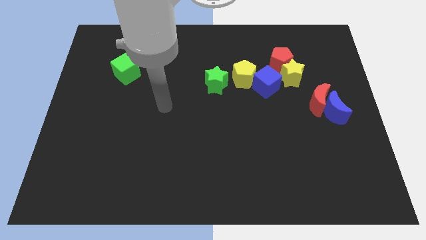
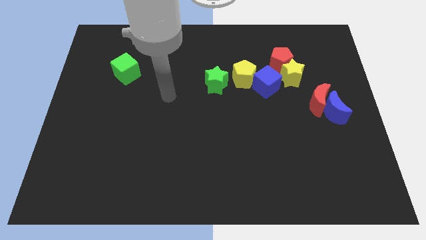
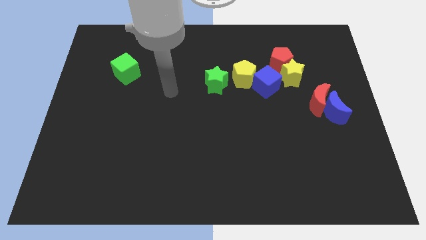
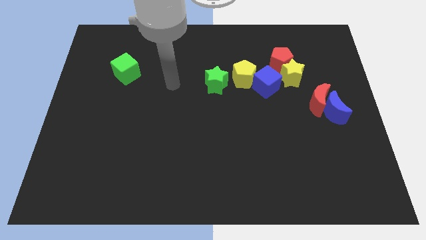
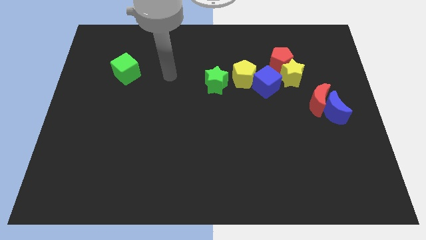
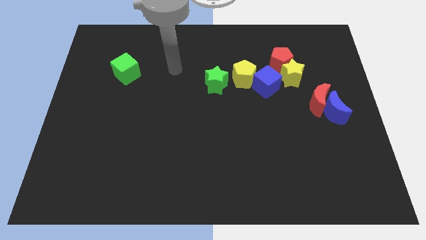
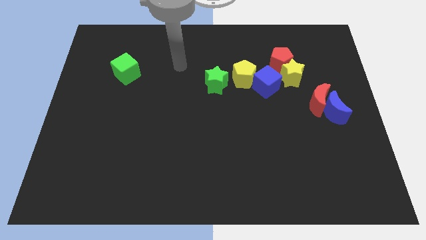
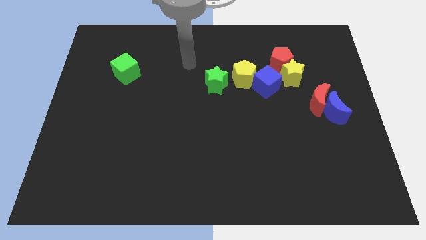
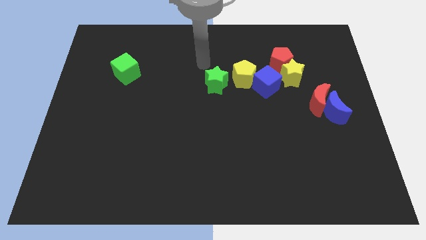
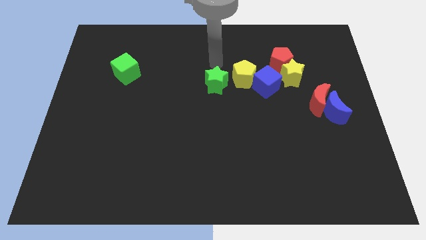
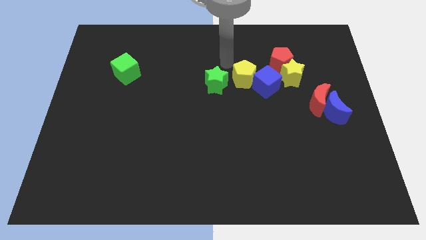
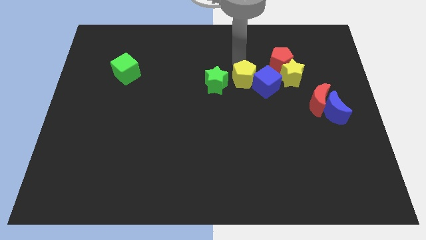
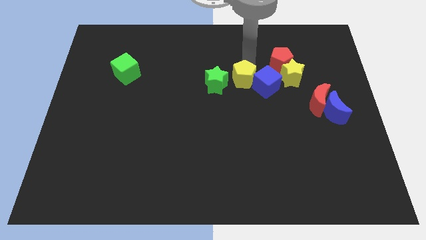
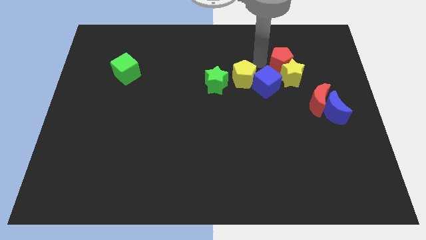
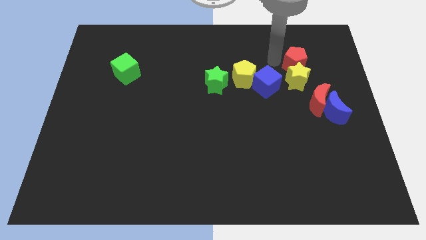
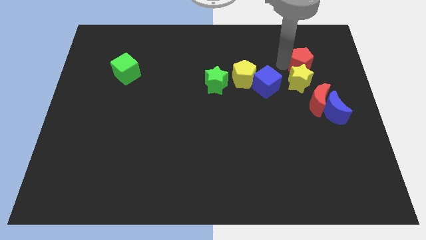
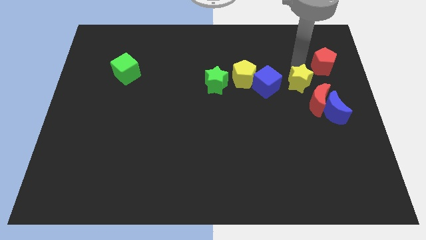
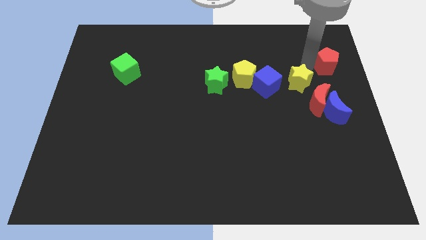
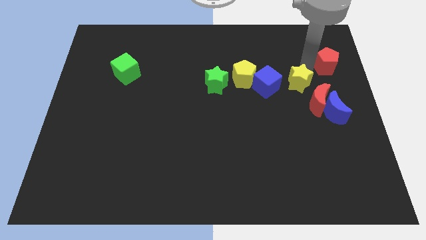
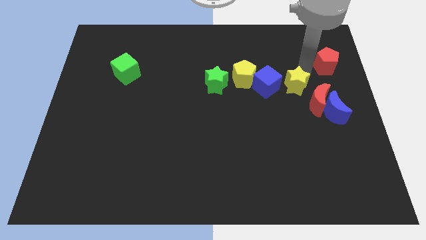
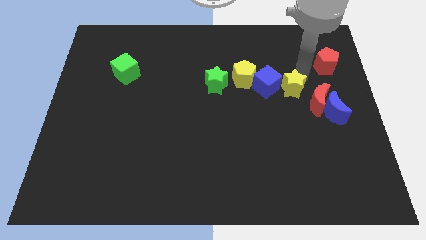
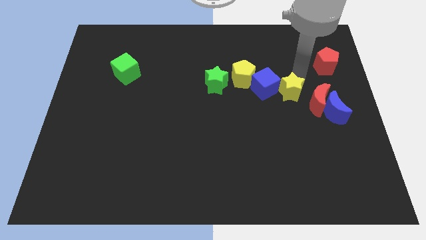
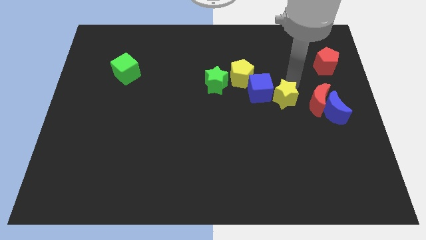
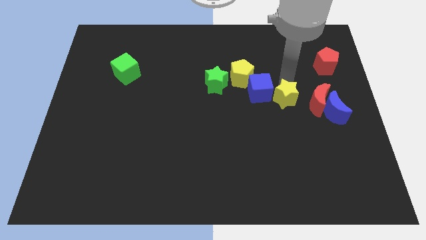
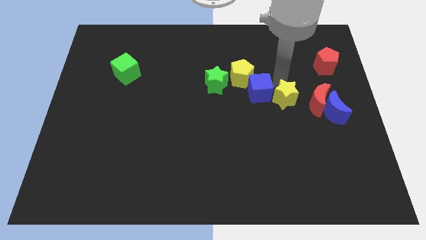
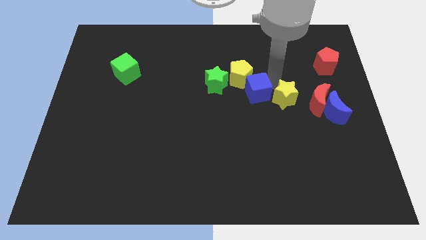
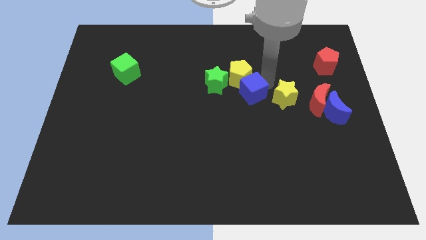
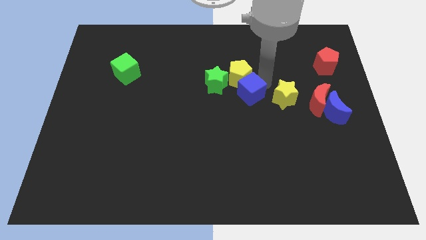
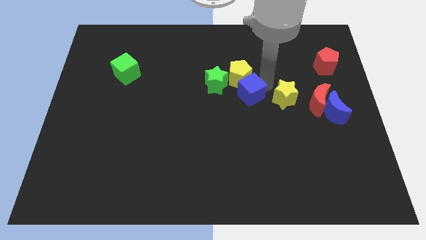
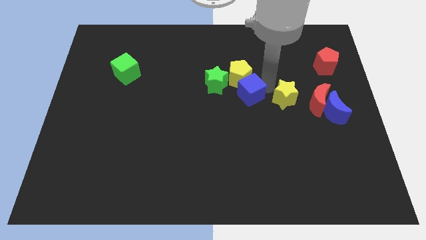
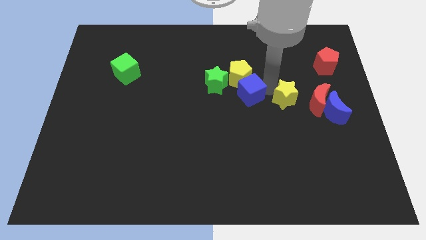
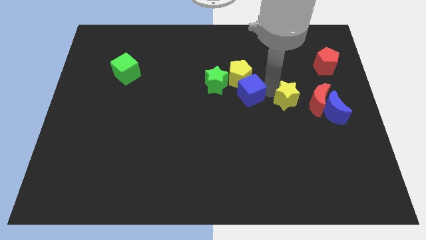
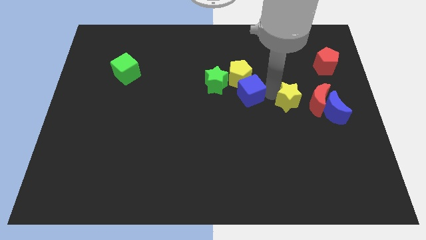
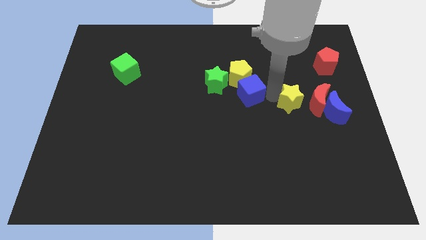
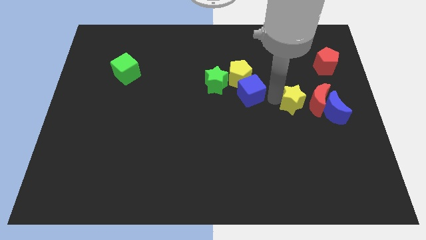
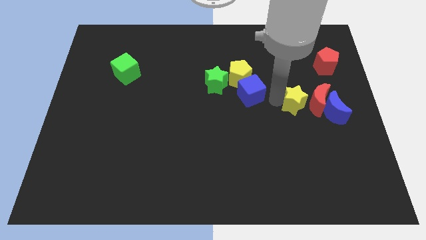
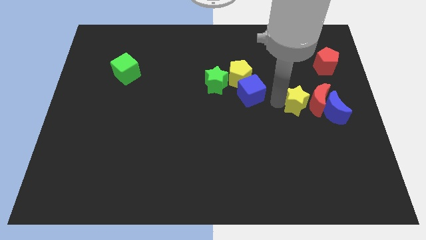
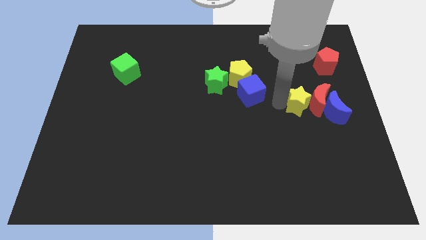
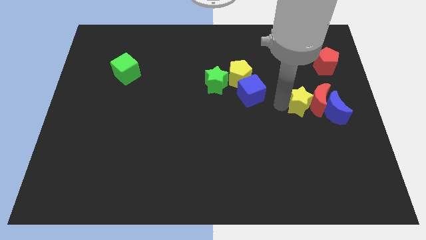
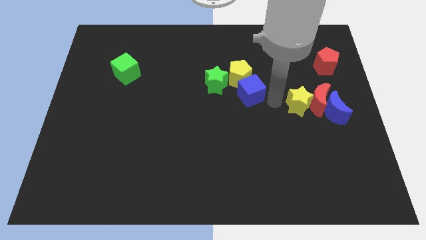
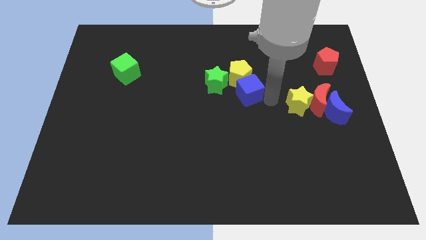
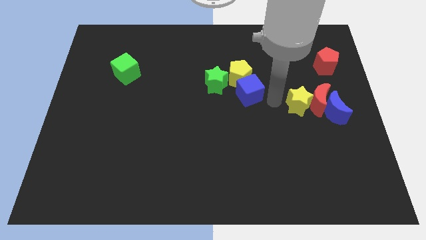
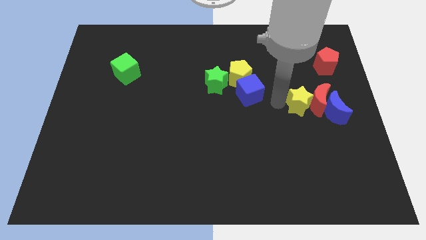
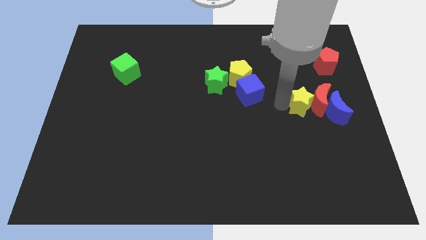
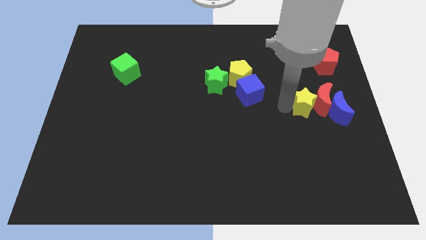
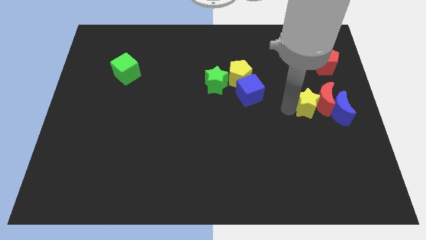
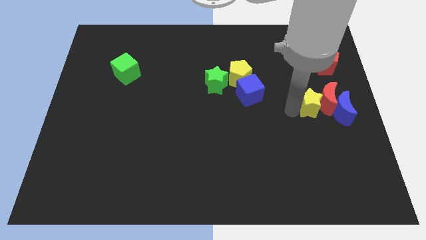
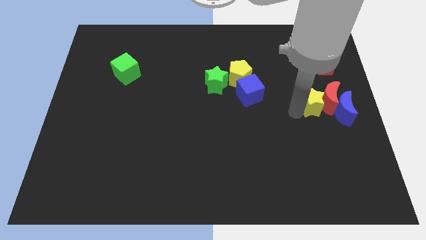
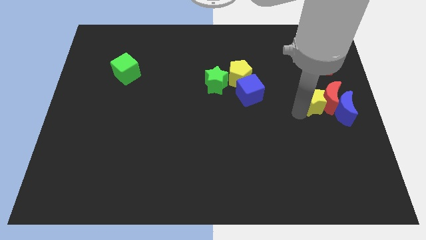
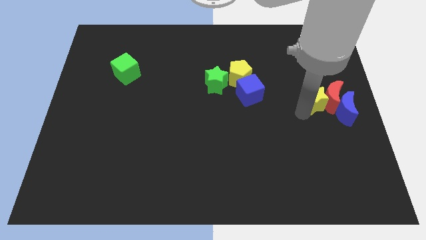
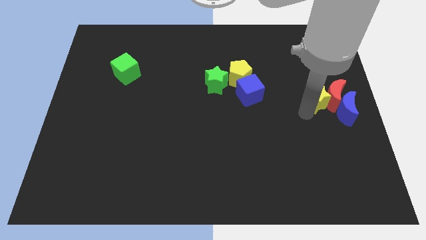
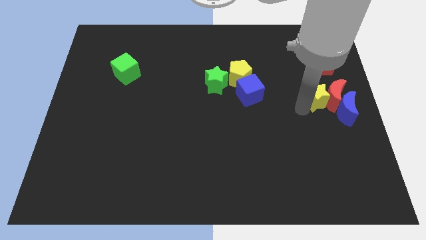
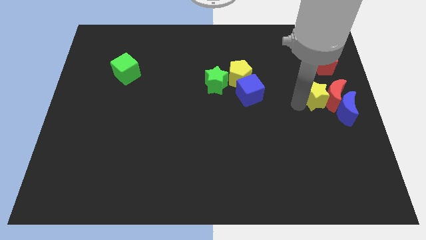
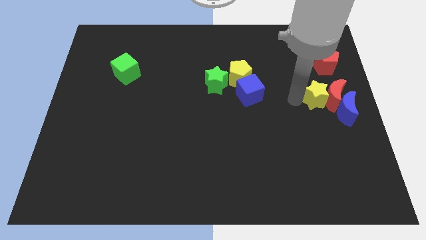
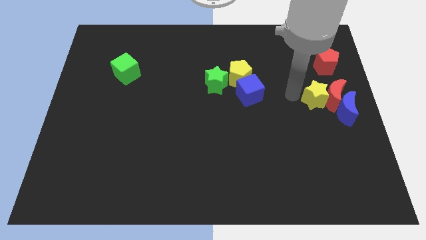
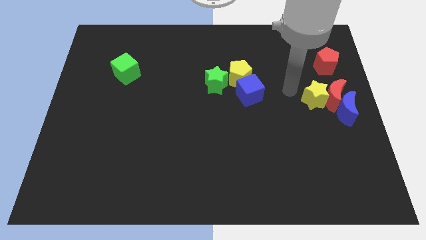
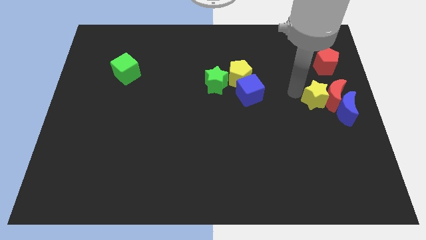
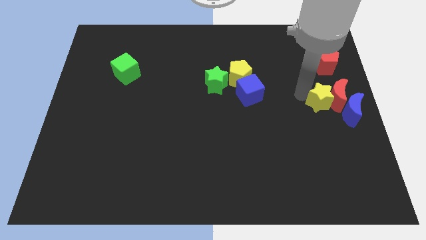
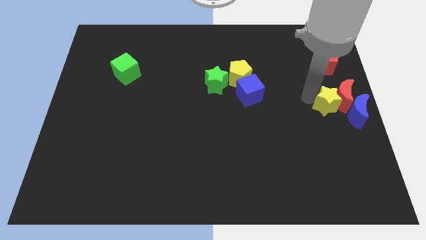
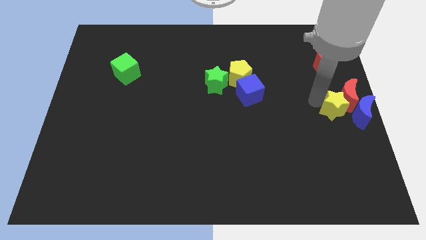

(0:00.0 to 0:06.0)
slide the yellow star close to the blue moon

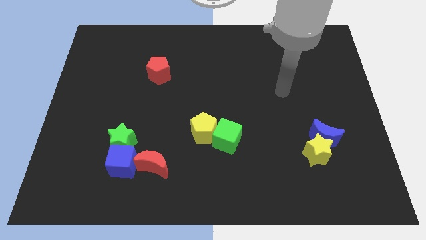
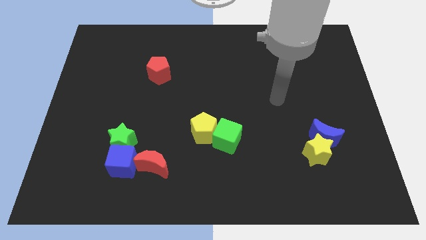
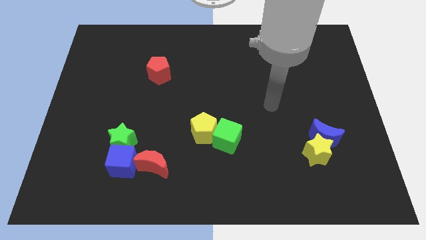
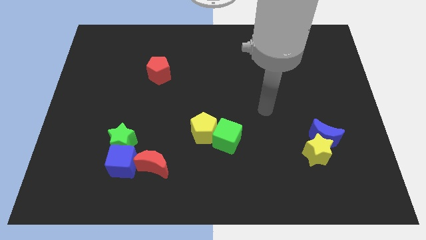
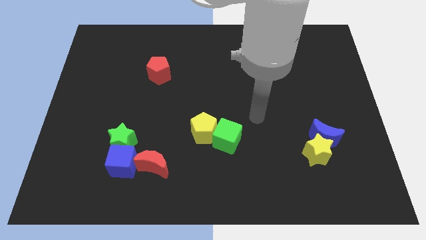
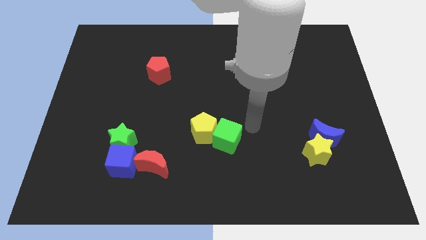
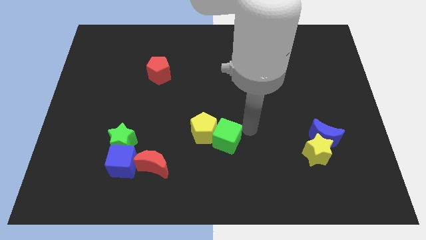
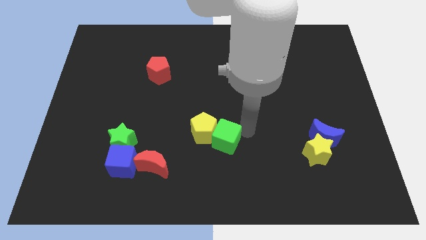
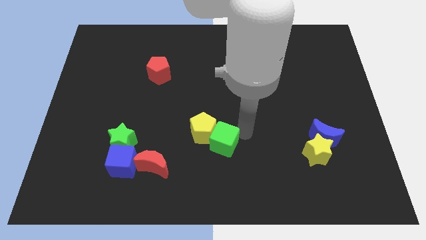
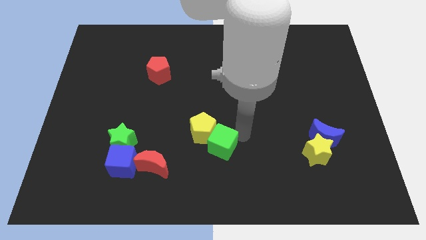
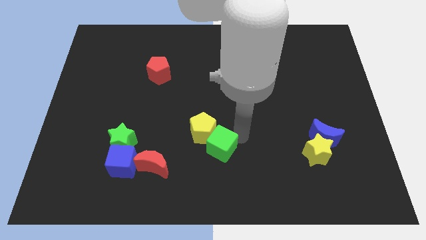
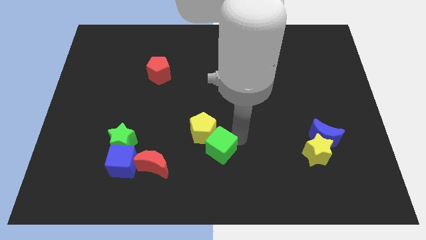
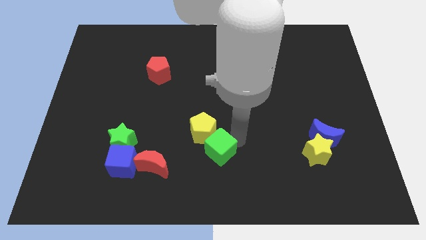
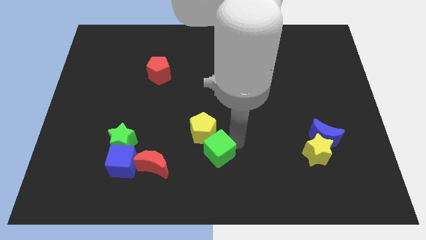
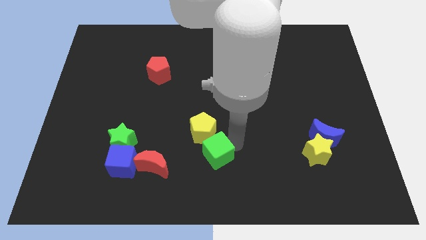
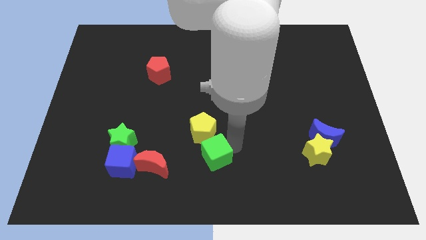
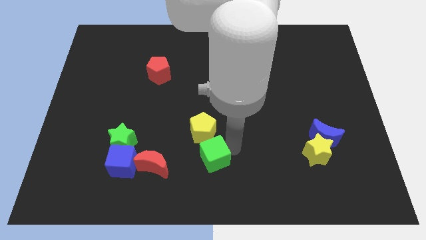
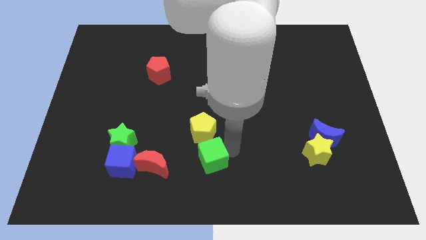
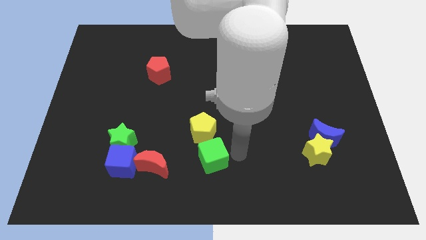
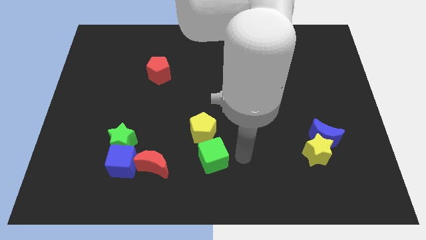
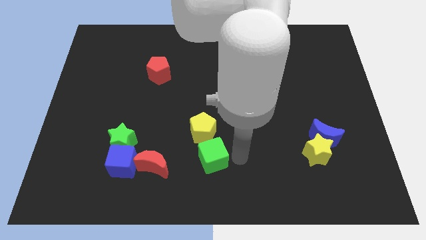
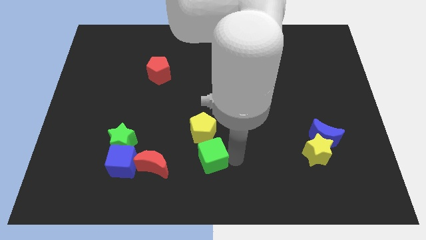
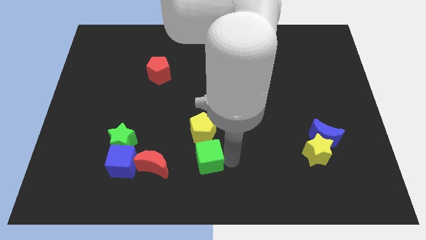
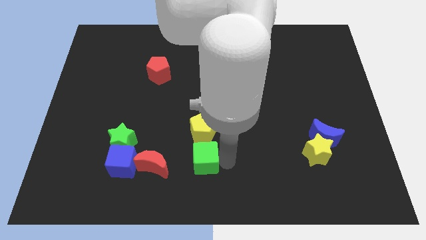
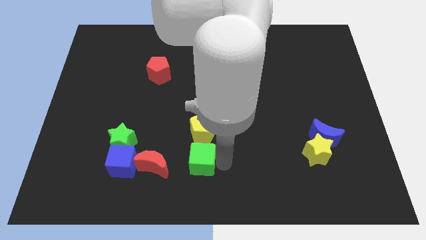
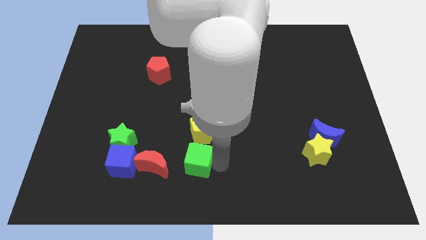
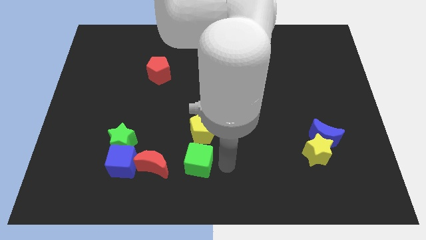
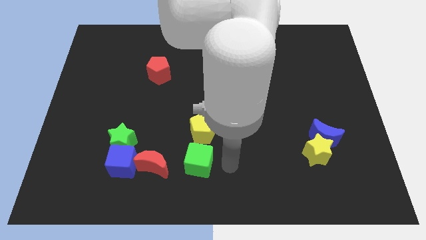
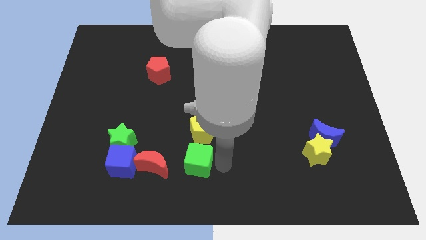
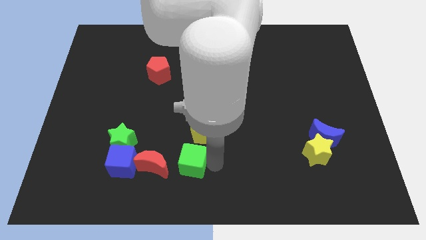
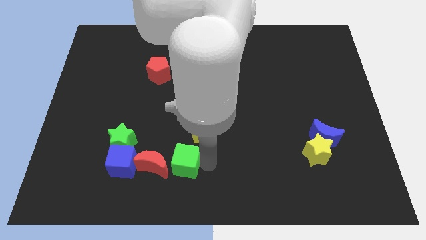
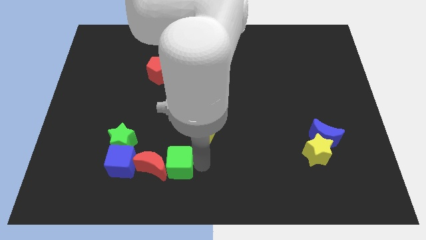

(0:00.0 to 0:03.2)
push the green cube to the red moon
